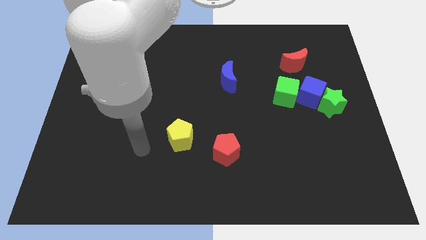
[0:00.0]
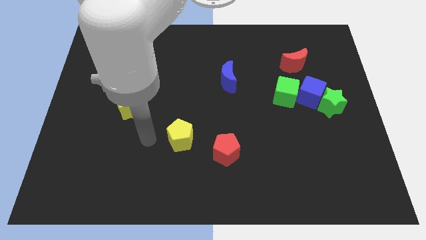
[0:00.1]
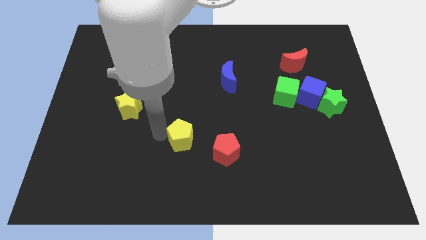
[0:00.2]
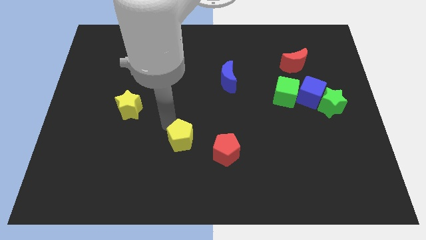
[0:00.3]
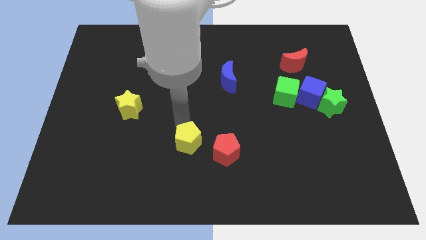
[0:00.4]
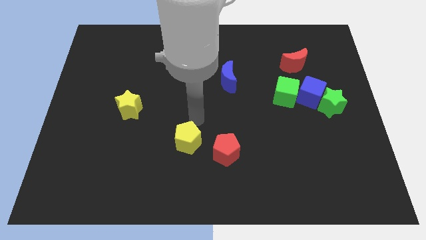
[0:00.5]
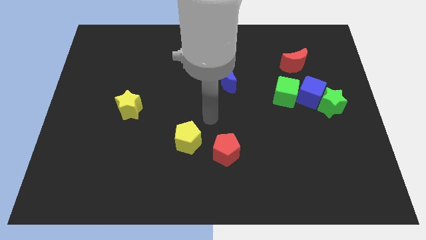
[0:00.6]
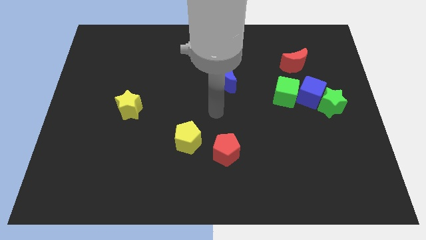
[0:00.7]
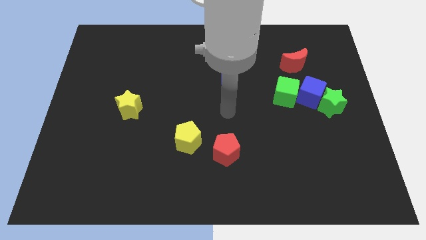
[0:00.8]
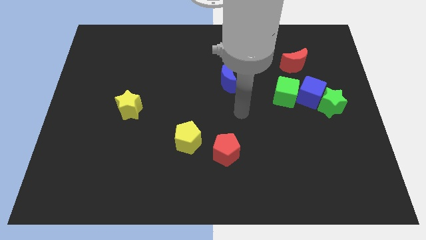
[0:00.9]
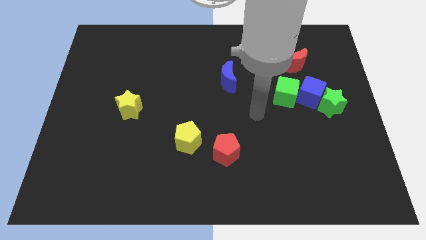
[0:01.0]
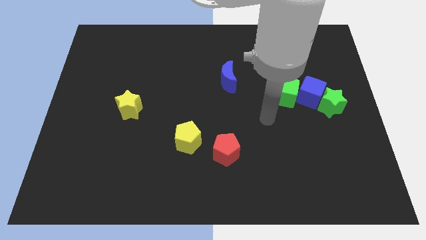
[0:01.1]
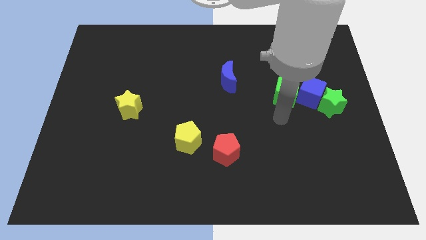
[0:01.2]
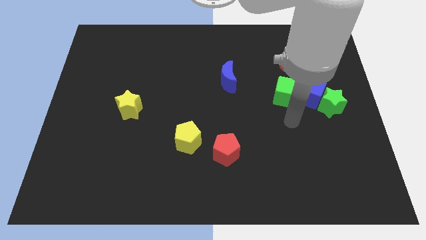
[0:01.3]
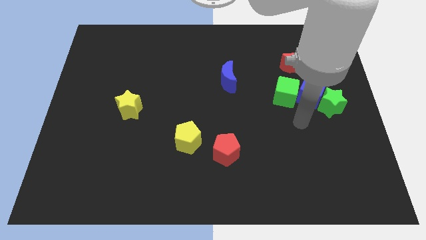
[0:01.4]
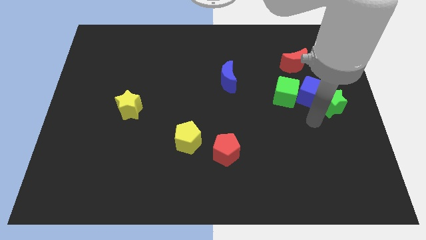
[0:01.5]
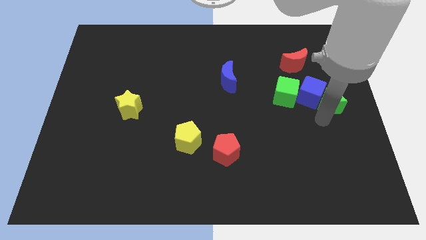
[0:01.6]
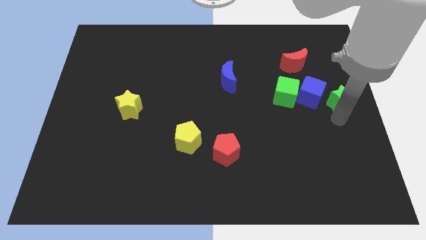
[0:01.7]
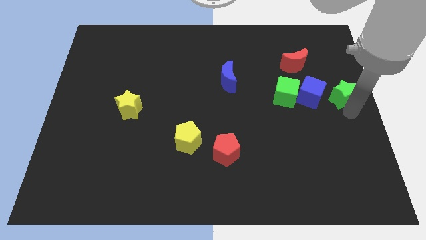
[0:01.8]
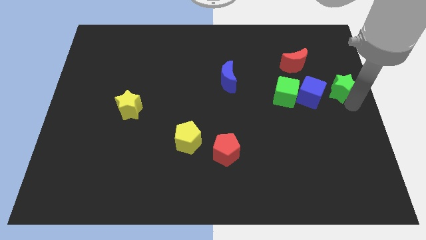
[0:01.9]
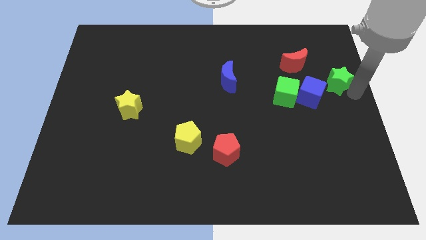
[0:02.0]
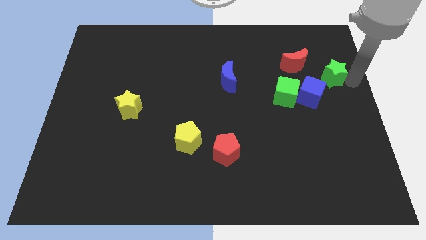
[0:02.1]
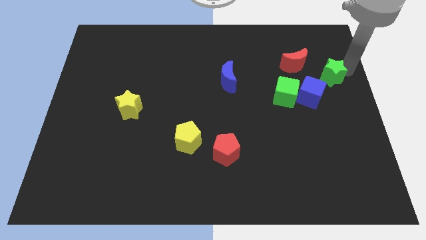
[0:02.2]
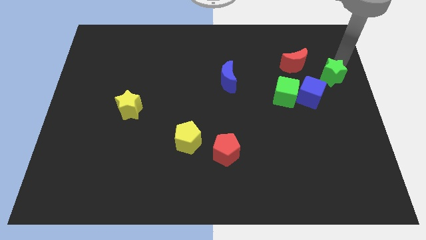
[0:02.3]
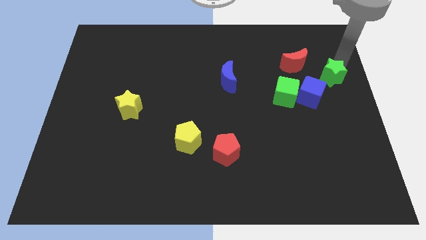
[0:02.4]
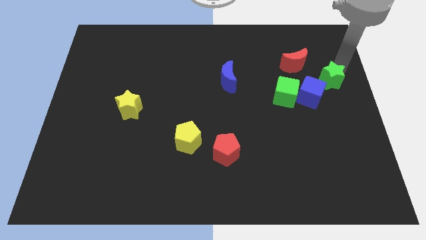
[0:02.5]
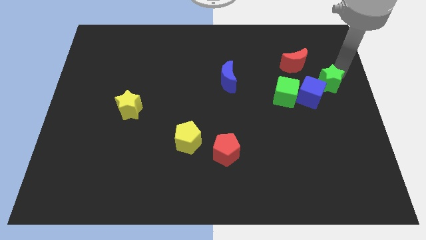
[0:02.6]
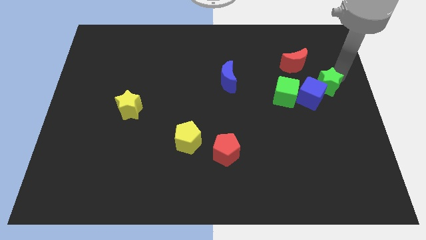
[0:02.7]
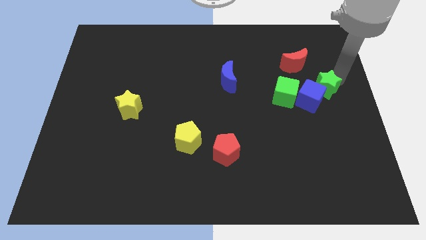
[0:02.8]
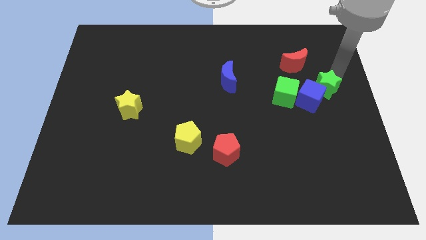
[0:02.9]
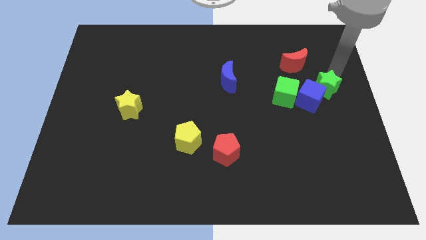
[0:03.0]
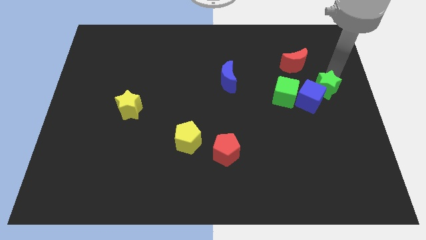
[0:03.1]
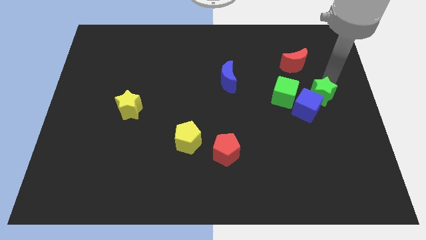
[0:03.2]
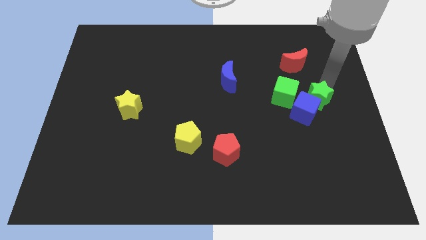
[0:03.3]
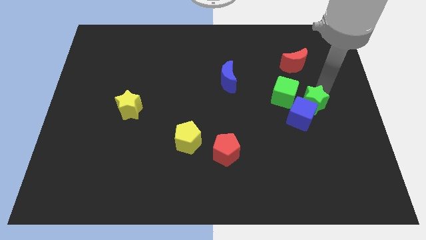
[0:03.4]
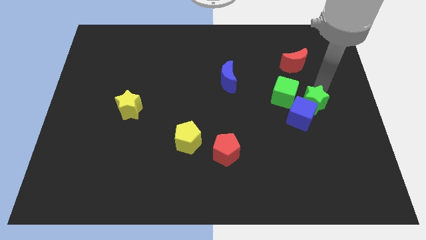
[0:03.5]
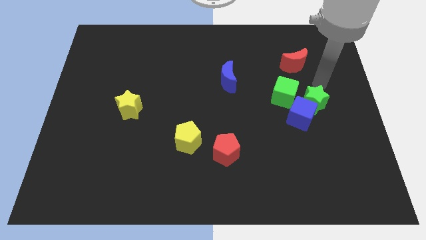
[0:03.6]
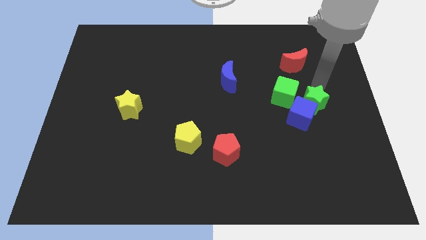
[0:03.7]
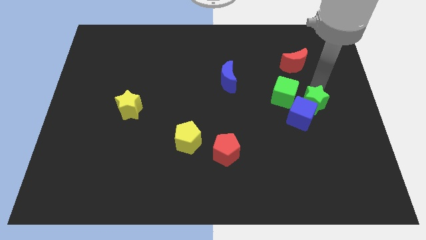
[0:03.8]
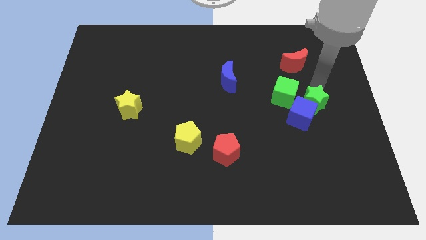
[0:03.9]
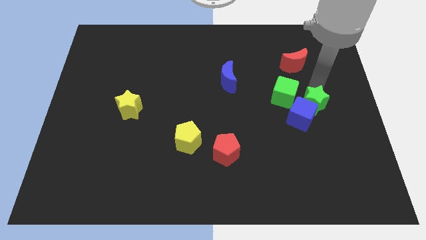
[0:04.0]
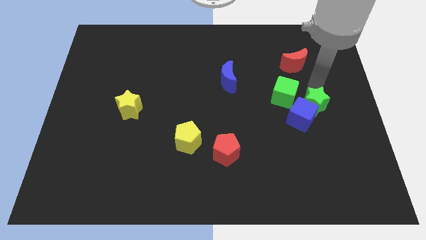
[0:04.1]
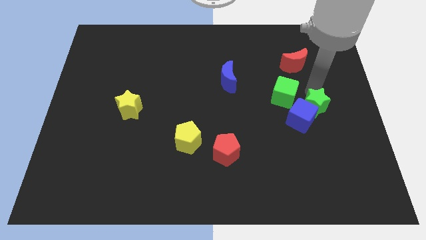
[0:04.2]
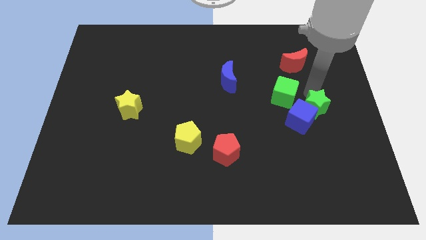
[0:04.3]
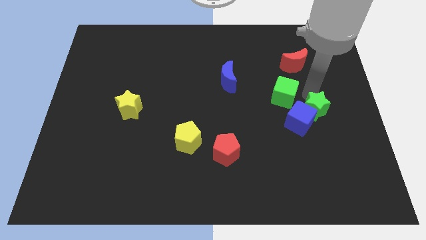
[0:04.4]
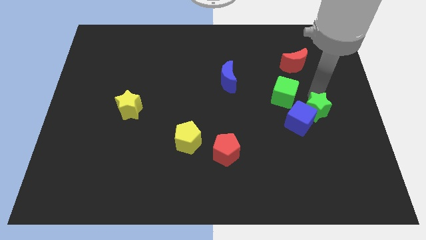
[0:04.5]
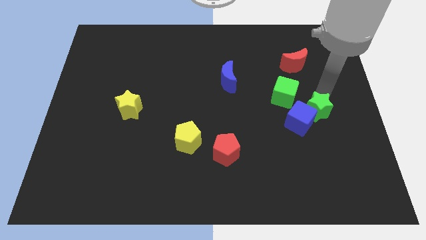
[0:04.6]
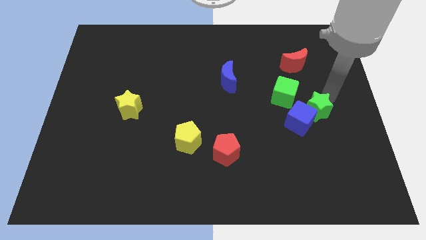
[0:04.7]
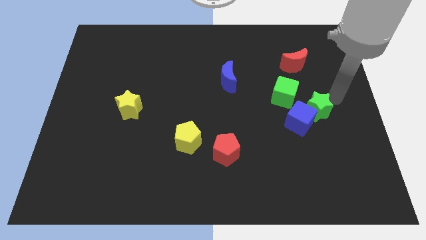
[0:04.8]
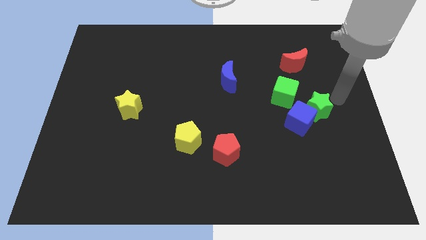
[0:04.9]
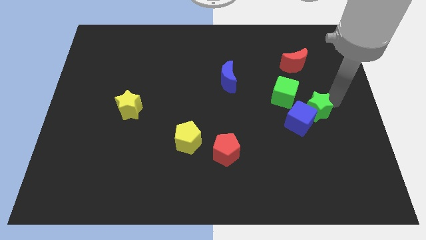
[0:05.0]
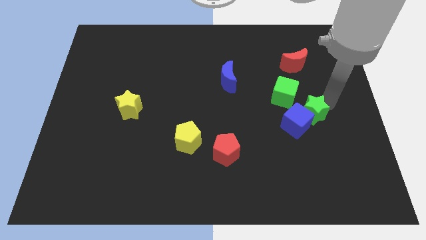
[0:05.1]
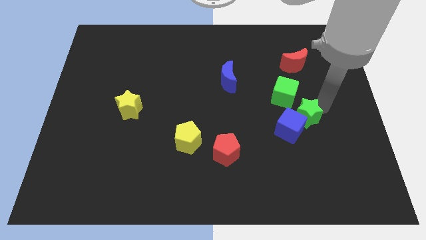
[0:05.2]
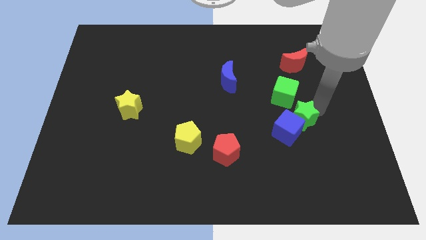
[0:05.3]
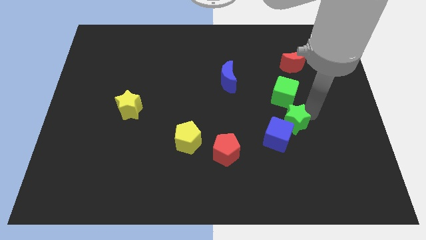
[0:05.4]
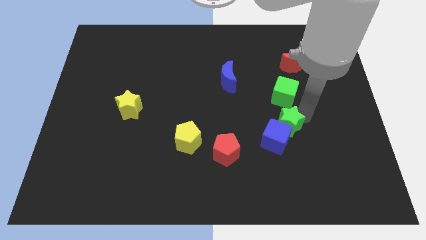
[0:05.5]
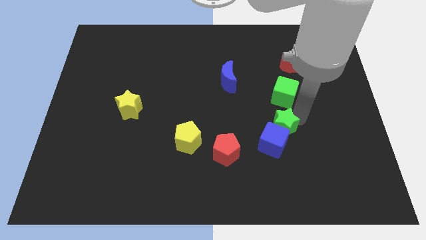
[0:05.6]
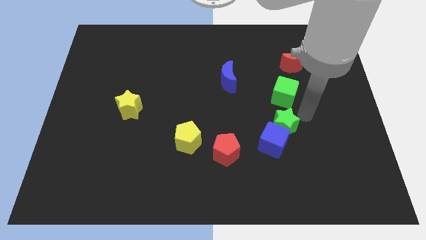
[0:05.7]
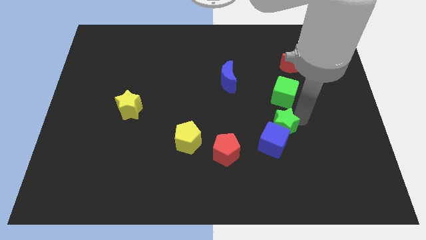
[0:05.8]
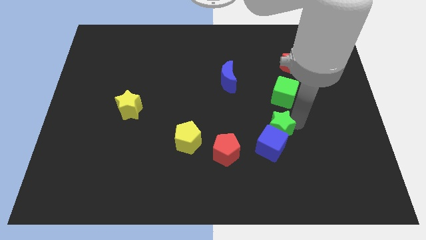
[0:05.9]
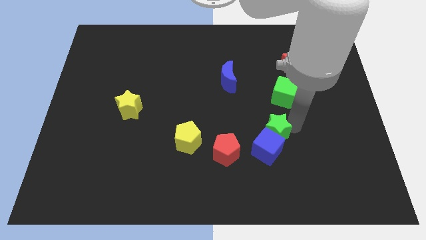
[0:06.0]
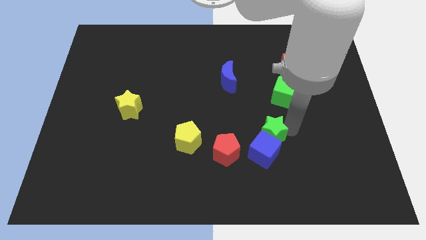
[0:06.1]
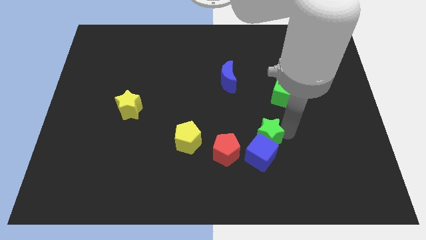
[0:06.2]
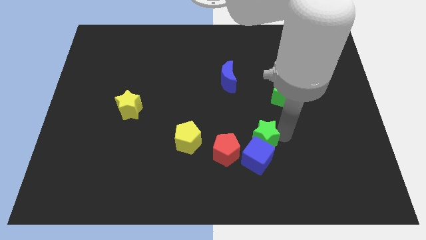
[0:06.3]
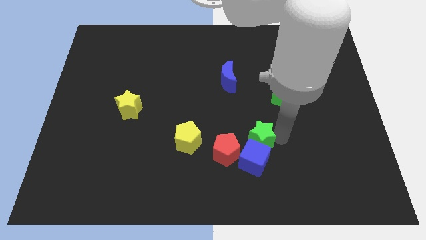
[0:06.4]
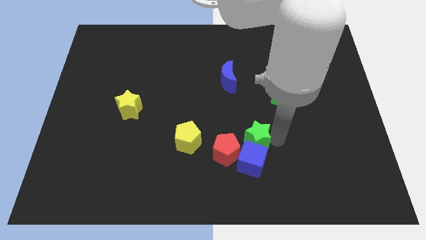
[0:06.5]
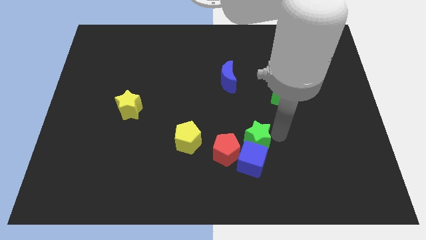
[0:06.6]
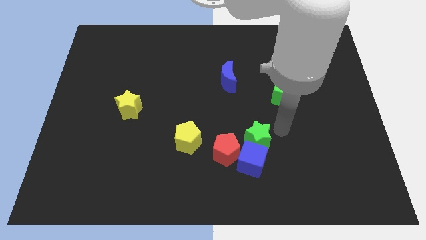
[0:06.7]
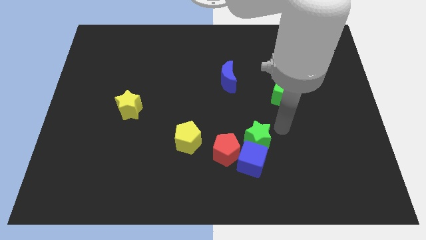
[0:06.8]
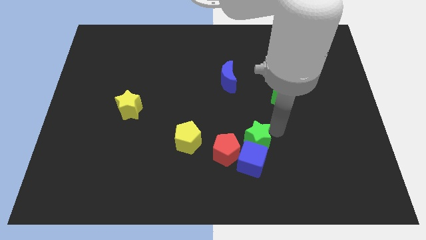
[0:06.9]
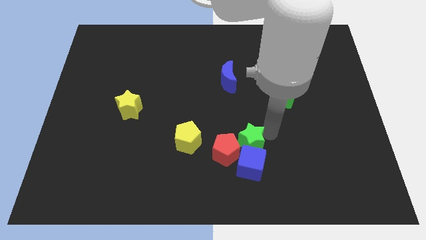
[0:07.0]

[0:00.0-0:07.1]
move the green star next to the red pentagon
